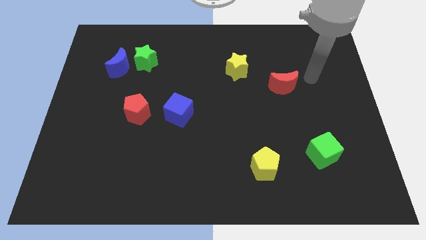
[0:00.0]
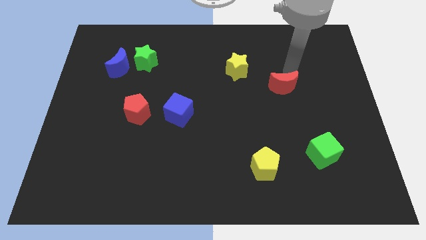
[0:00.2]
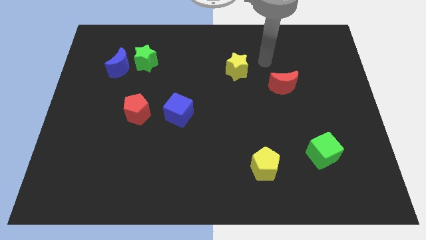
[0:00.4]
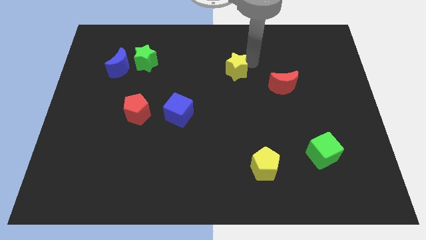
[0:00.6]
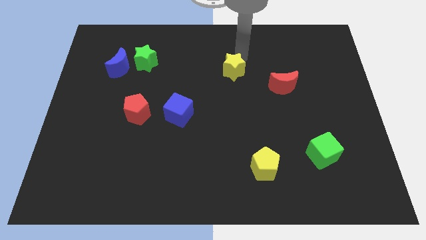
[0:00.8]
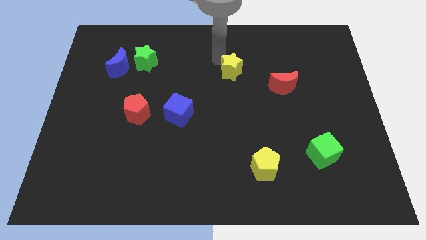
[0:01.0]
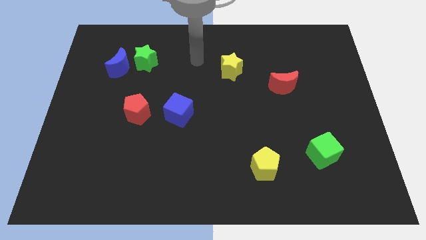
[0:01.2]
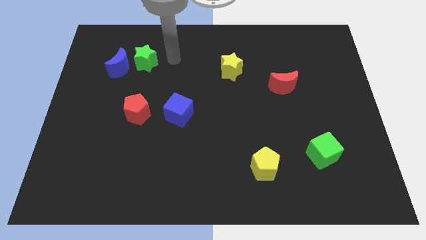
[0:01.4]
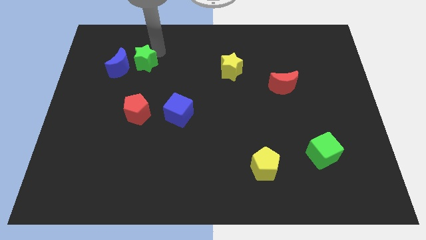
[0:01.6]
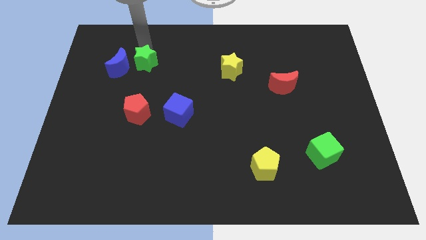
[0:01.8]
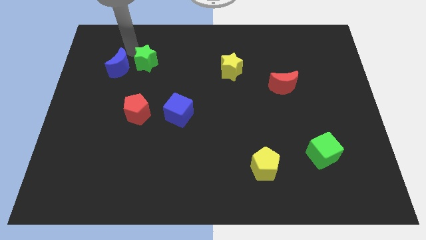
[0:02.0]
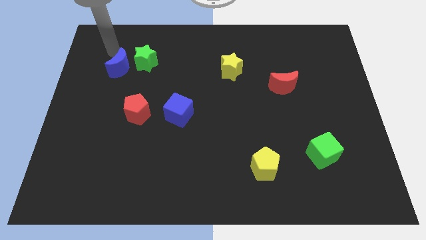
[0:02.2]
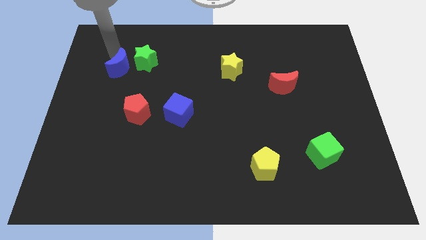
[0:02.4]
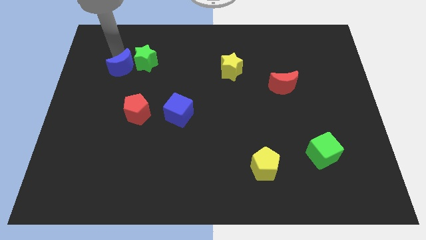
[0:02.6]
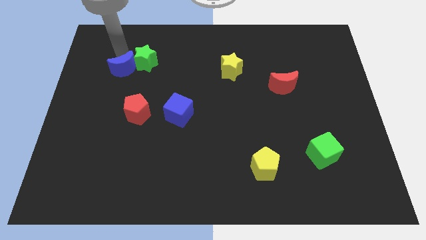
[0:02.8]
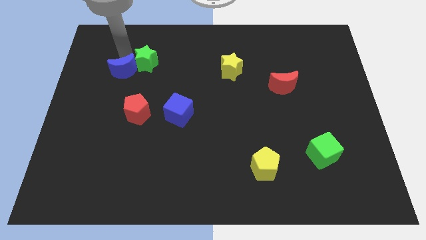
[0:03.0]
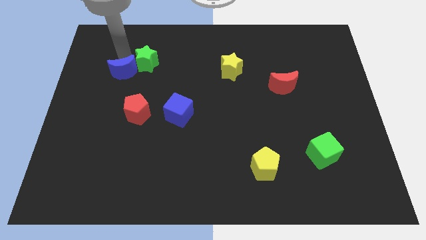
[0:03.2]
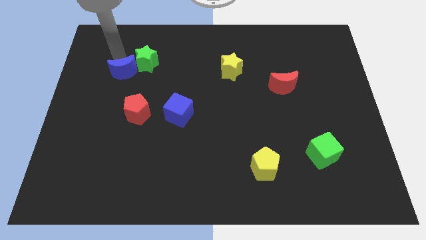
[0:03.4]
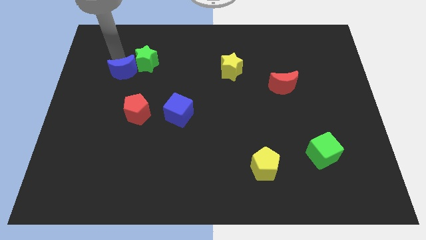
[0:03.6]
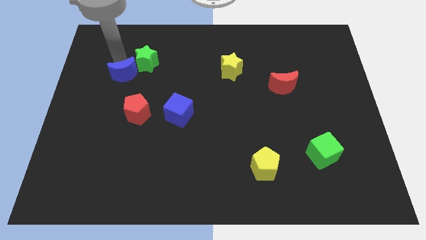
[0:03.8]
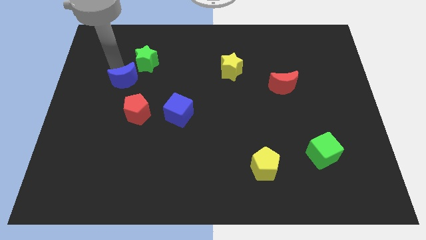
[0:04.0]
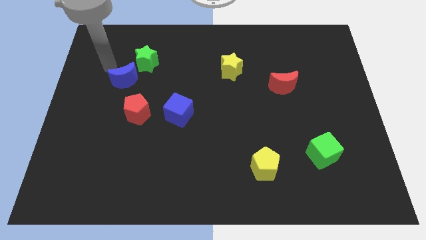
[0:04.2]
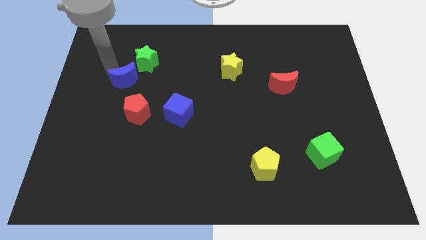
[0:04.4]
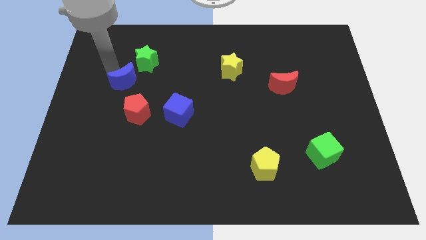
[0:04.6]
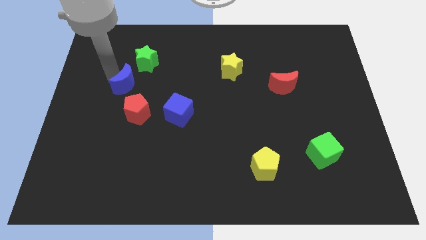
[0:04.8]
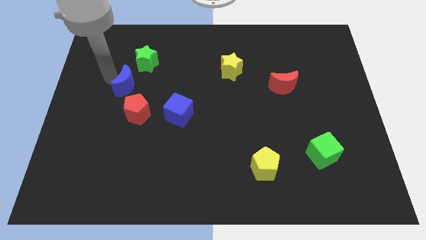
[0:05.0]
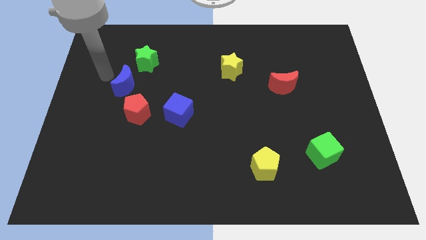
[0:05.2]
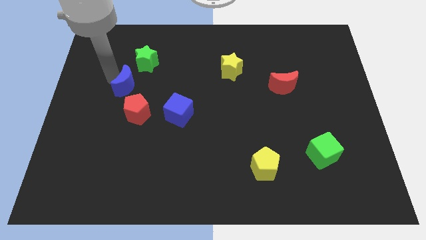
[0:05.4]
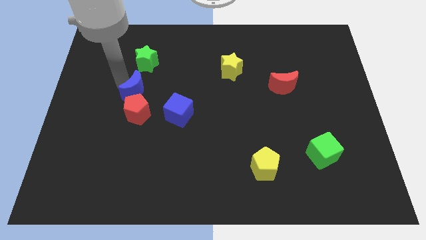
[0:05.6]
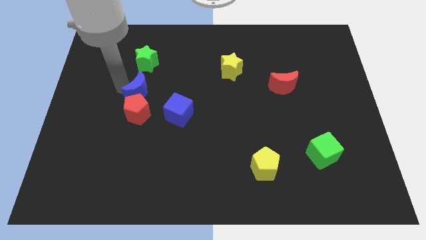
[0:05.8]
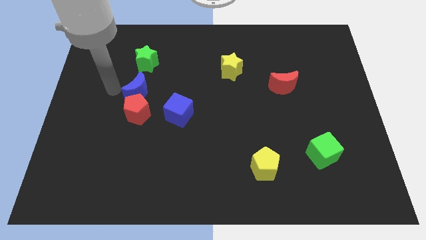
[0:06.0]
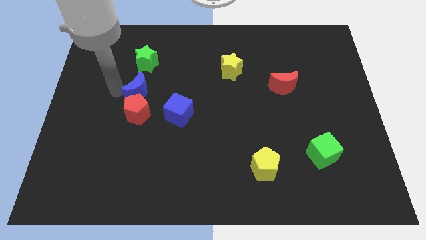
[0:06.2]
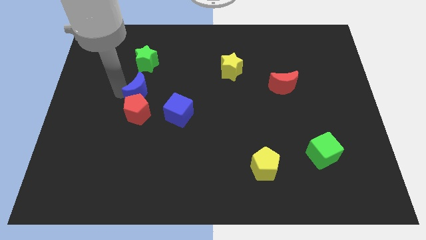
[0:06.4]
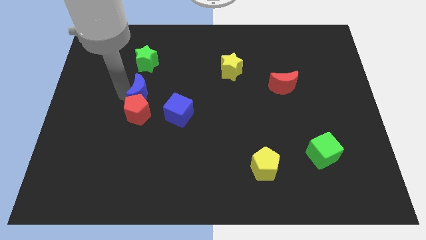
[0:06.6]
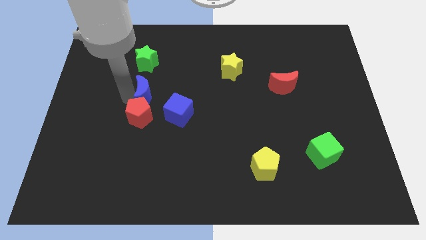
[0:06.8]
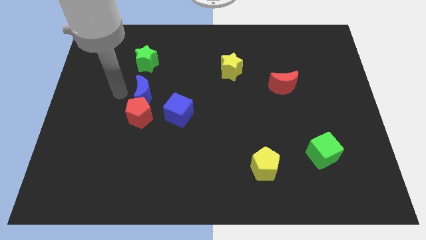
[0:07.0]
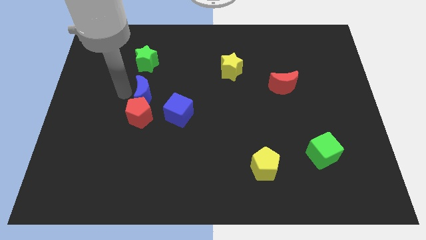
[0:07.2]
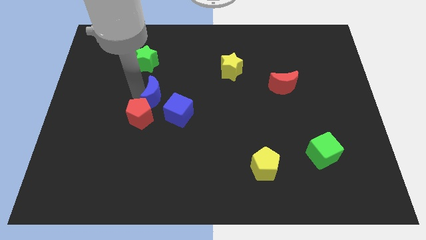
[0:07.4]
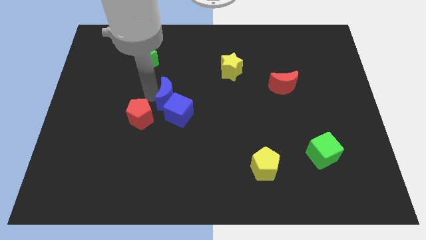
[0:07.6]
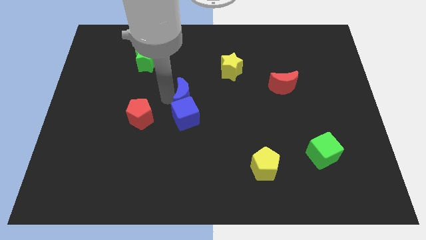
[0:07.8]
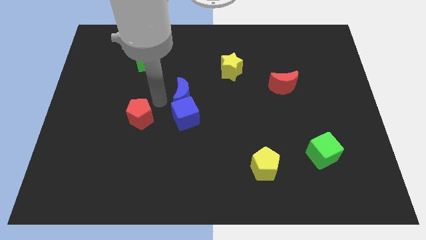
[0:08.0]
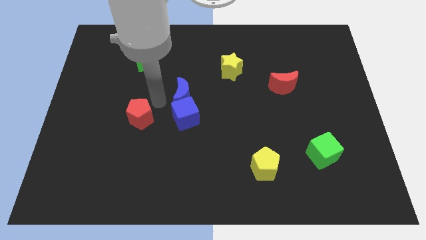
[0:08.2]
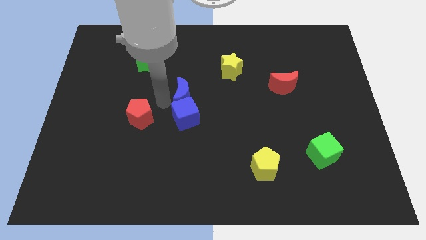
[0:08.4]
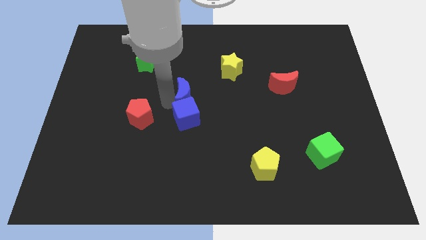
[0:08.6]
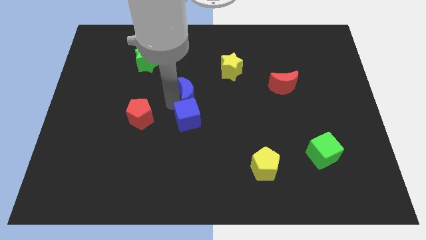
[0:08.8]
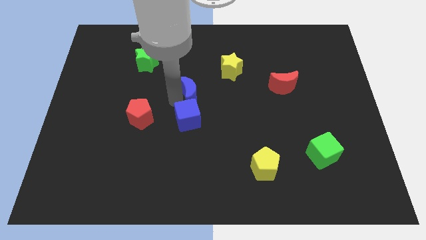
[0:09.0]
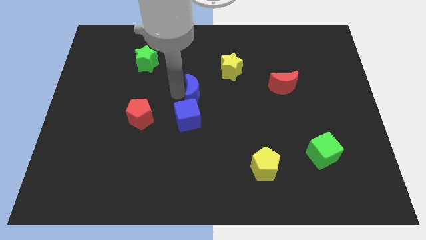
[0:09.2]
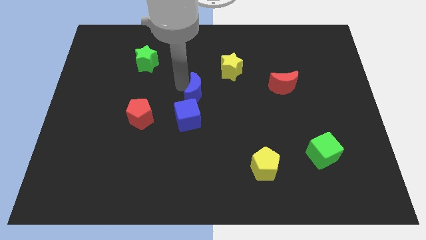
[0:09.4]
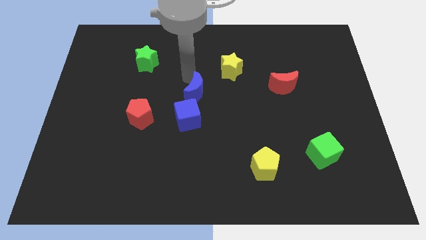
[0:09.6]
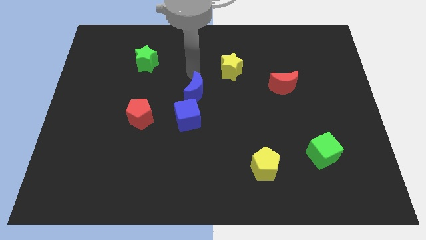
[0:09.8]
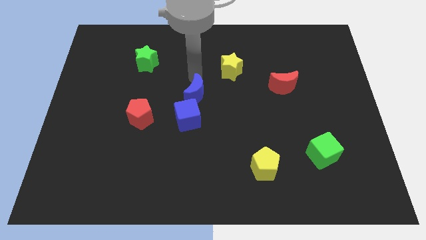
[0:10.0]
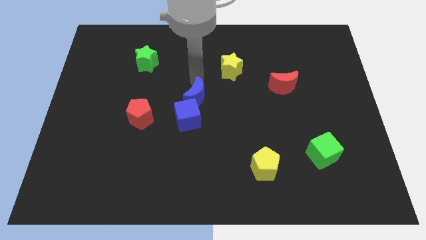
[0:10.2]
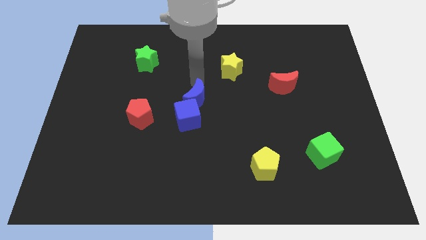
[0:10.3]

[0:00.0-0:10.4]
move the blue moon down and right diagonally

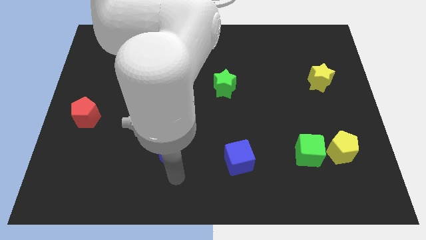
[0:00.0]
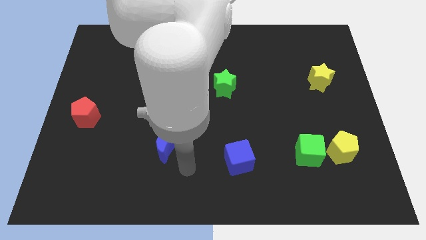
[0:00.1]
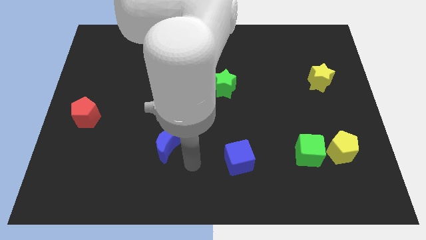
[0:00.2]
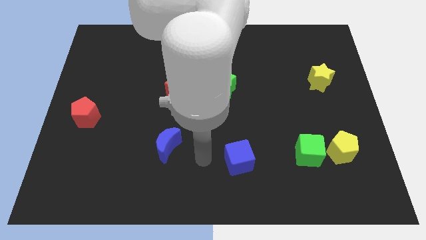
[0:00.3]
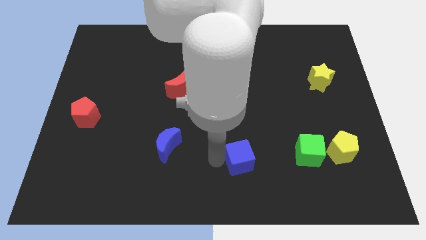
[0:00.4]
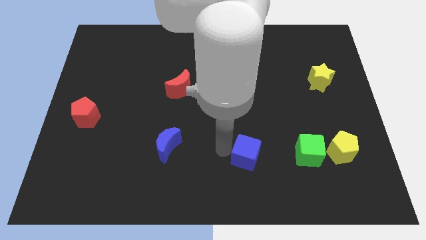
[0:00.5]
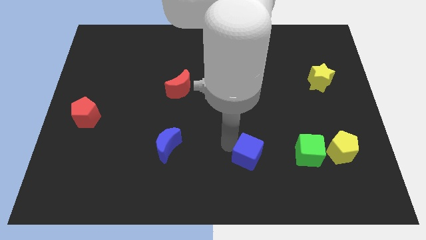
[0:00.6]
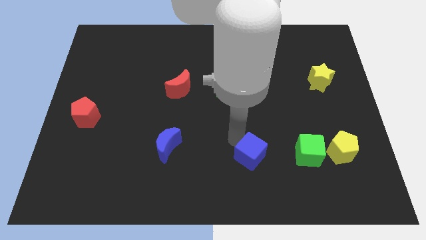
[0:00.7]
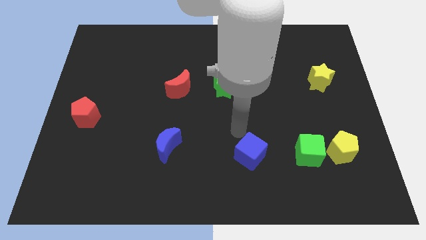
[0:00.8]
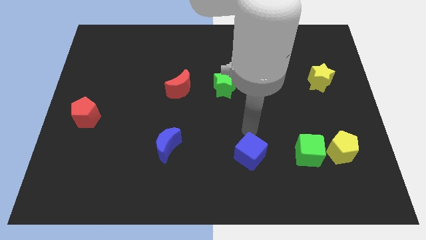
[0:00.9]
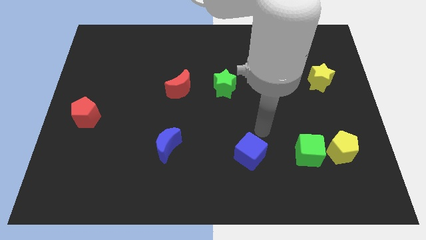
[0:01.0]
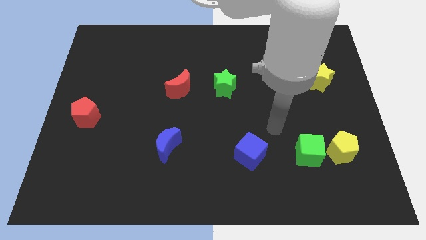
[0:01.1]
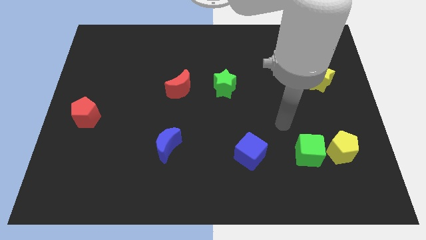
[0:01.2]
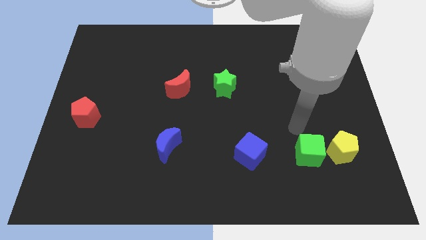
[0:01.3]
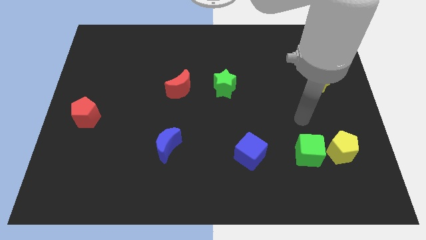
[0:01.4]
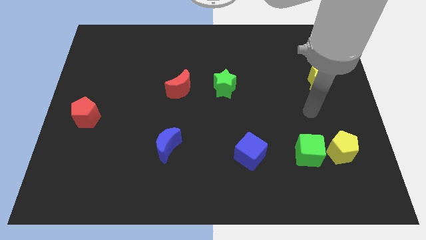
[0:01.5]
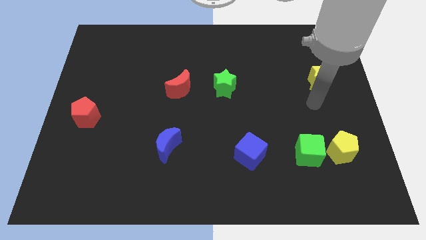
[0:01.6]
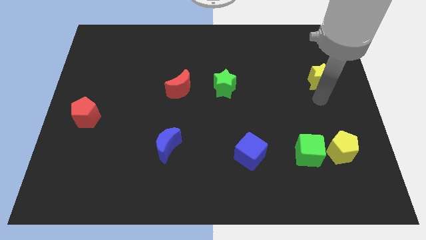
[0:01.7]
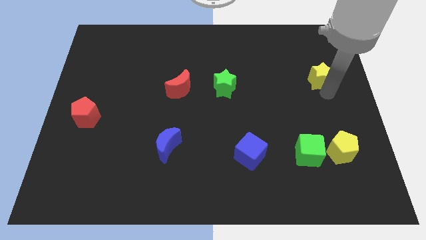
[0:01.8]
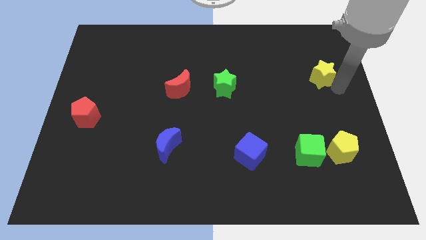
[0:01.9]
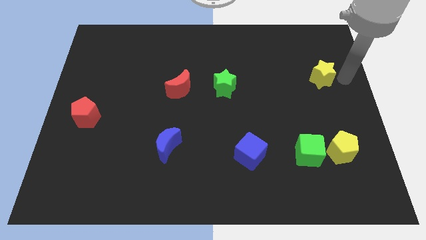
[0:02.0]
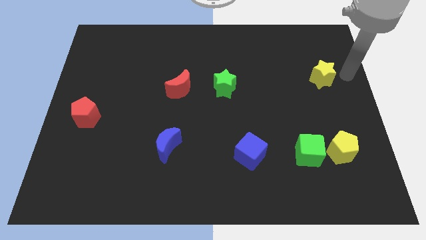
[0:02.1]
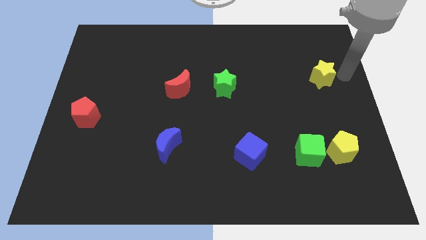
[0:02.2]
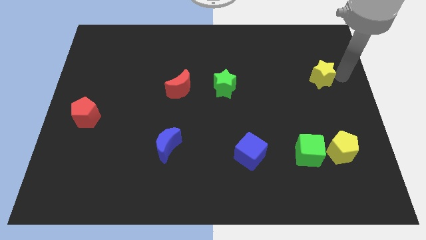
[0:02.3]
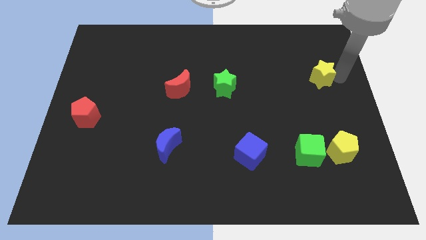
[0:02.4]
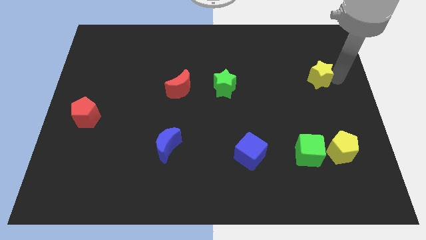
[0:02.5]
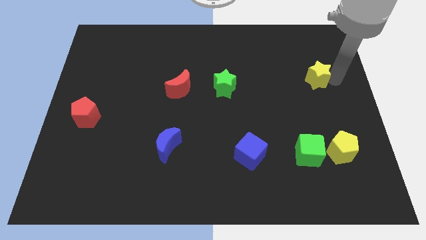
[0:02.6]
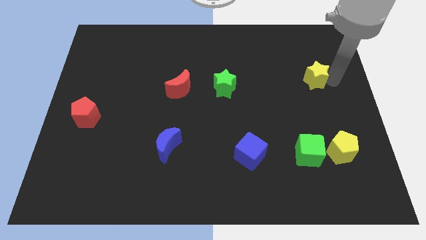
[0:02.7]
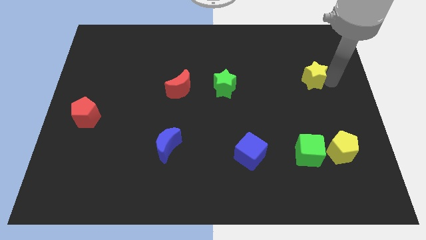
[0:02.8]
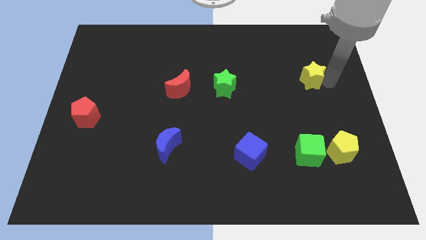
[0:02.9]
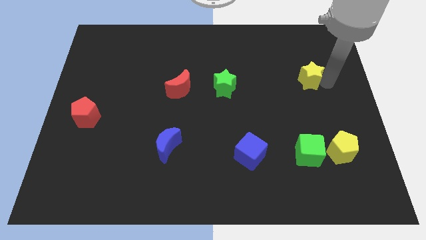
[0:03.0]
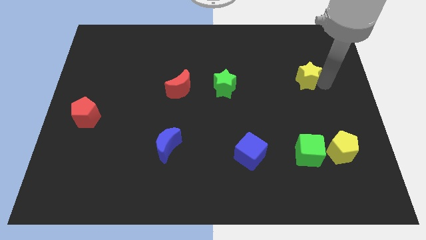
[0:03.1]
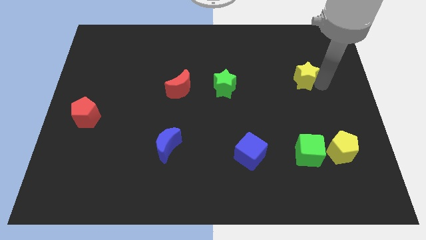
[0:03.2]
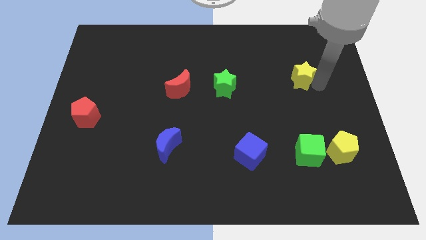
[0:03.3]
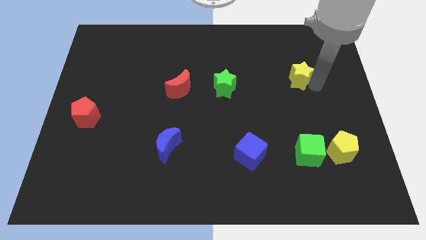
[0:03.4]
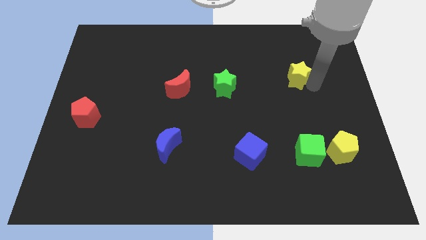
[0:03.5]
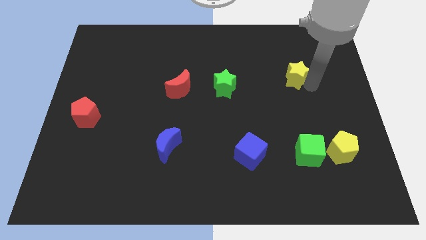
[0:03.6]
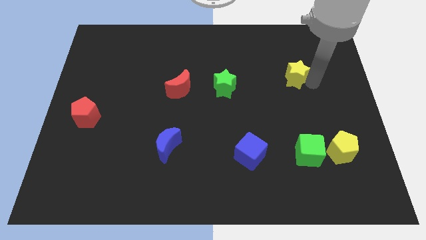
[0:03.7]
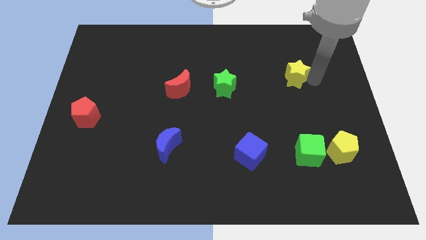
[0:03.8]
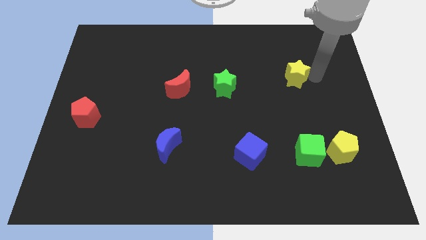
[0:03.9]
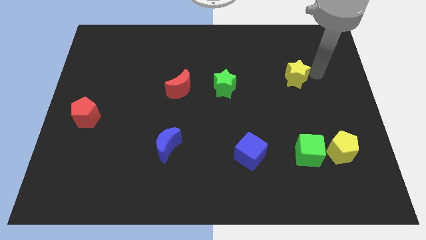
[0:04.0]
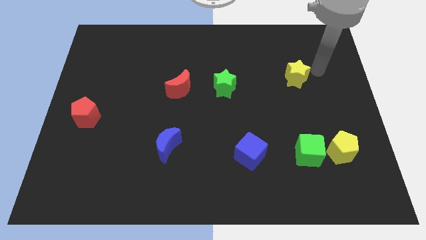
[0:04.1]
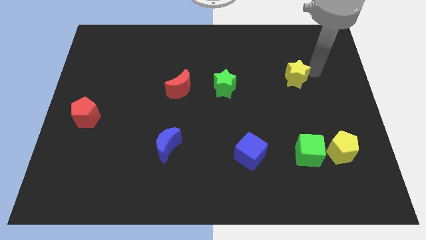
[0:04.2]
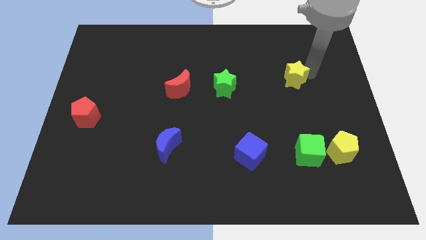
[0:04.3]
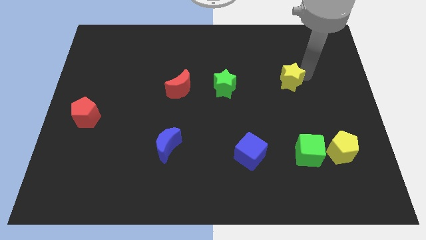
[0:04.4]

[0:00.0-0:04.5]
slide the yellow star left a little
